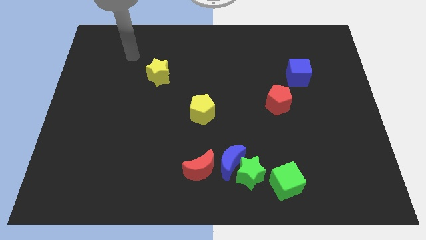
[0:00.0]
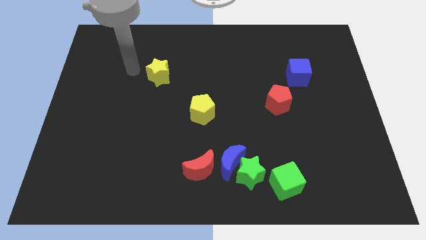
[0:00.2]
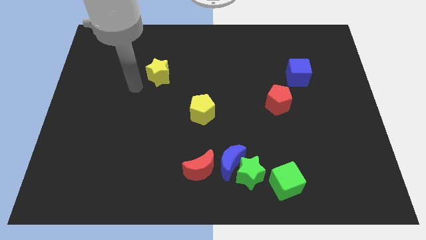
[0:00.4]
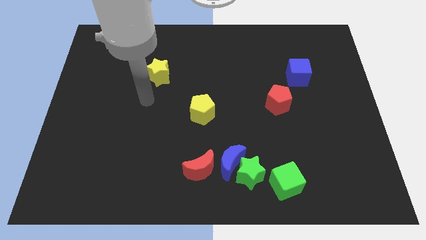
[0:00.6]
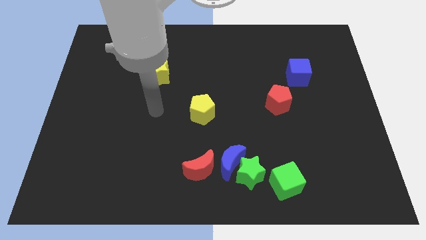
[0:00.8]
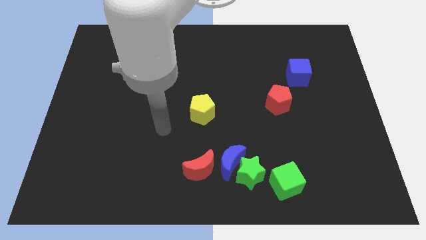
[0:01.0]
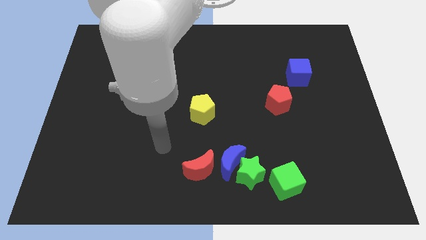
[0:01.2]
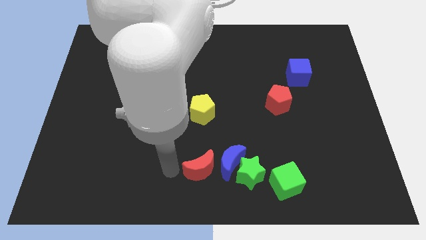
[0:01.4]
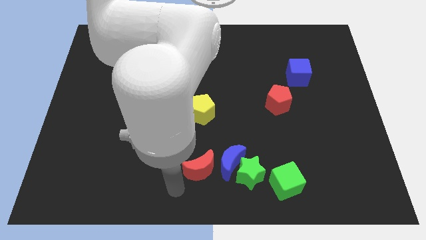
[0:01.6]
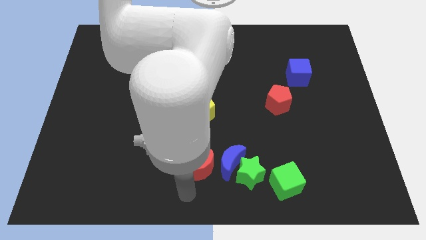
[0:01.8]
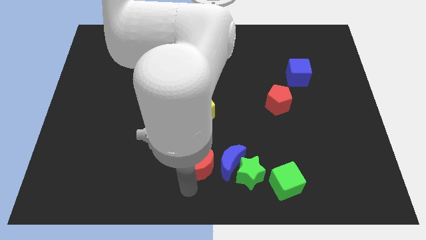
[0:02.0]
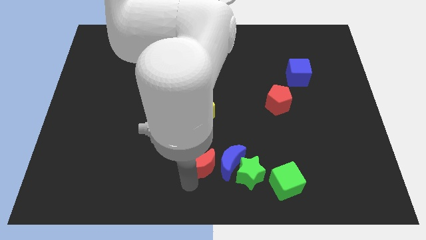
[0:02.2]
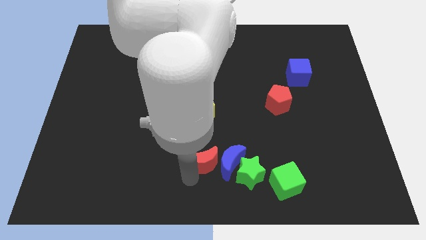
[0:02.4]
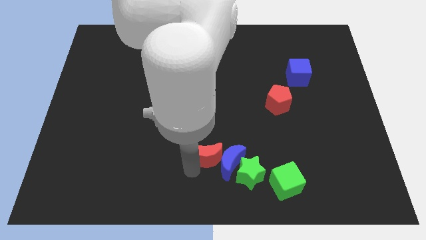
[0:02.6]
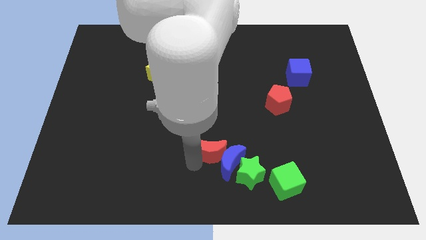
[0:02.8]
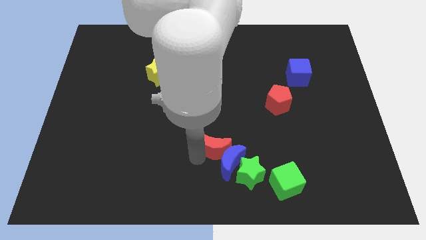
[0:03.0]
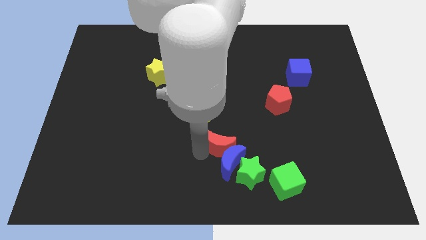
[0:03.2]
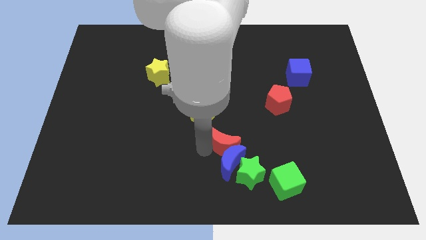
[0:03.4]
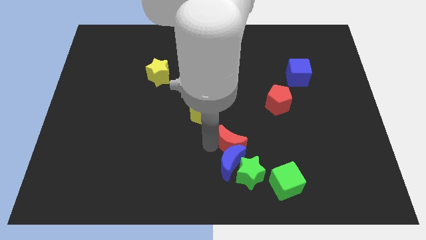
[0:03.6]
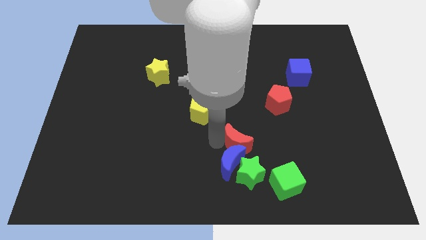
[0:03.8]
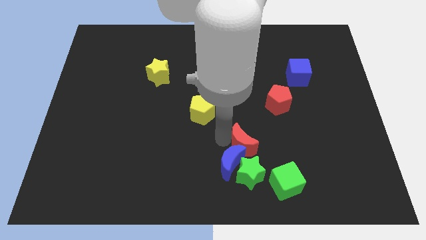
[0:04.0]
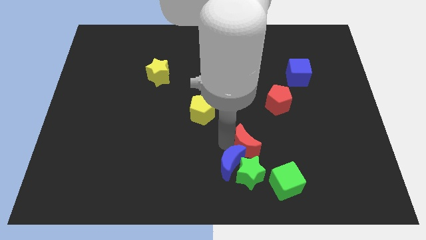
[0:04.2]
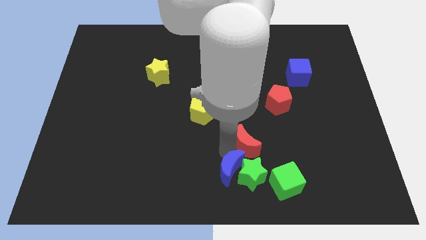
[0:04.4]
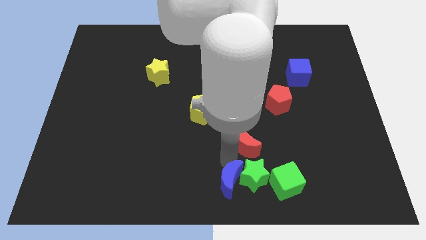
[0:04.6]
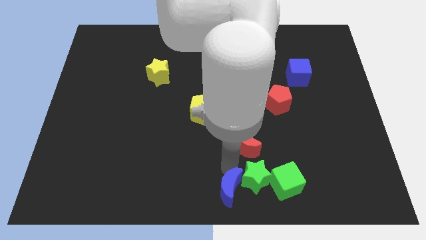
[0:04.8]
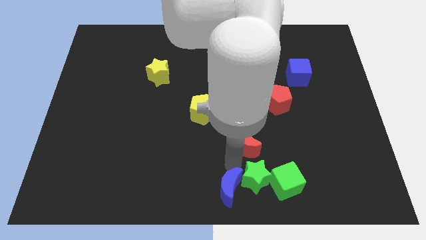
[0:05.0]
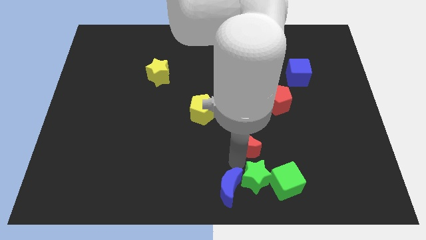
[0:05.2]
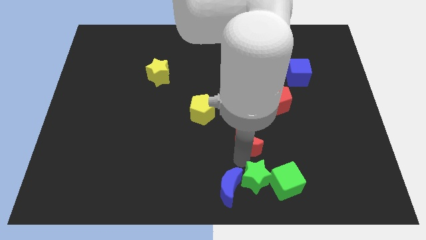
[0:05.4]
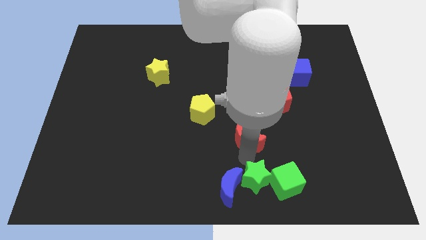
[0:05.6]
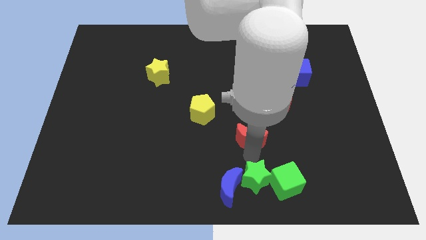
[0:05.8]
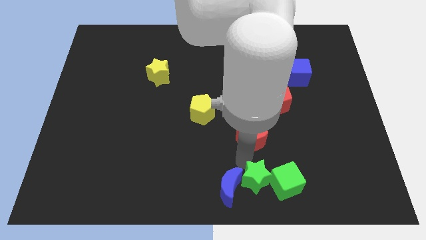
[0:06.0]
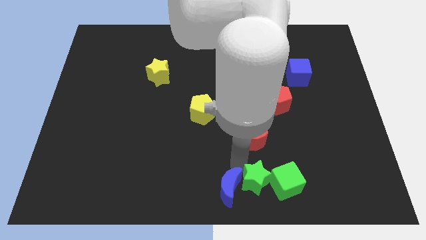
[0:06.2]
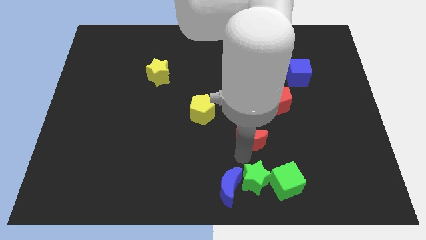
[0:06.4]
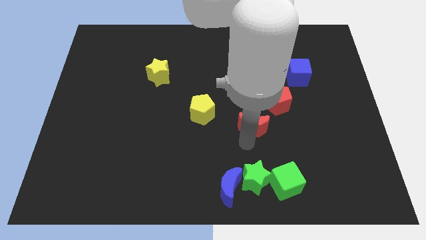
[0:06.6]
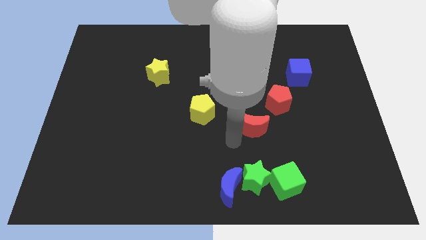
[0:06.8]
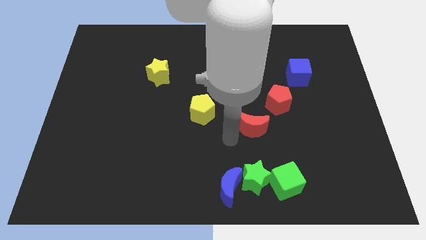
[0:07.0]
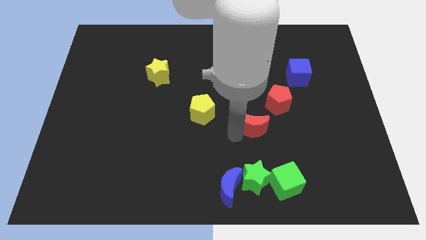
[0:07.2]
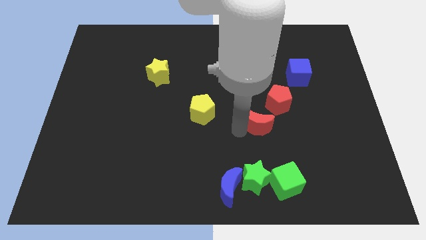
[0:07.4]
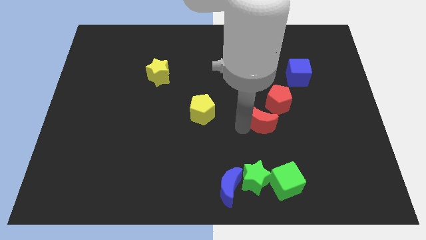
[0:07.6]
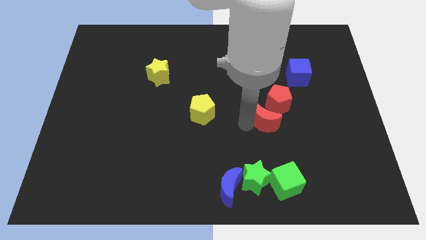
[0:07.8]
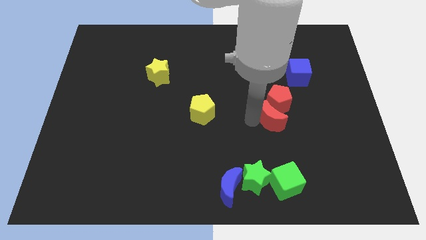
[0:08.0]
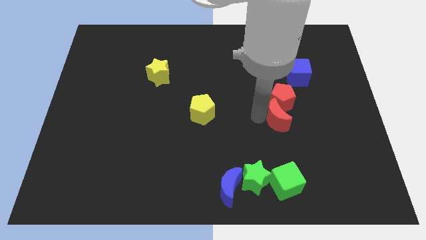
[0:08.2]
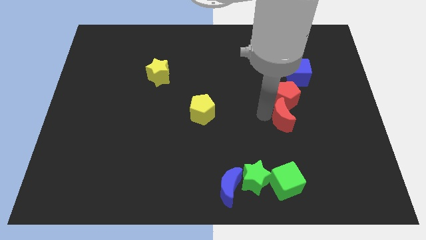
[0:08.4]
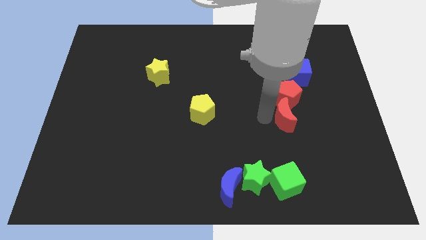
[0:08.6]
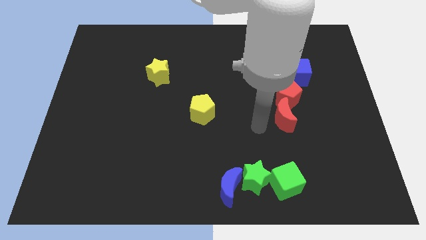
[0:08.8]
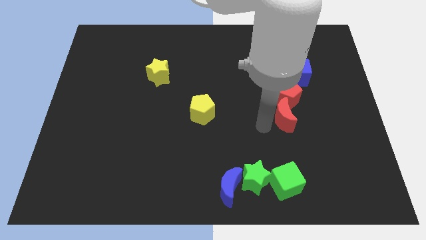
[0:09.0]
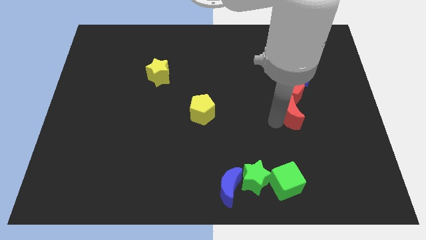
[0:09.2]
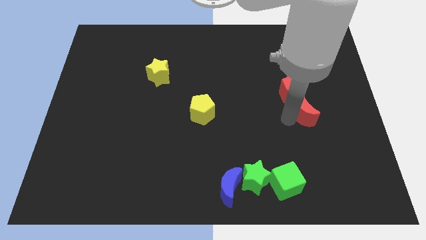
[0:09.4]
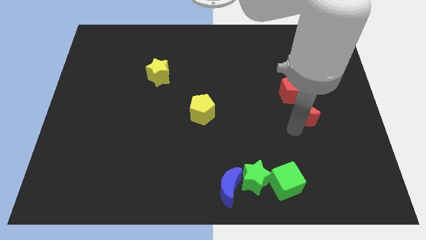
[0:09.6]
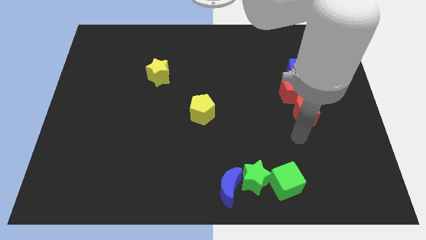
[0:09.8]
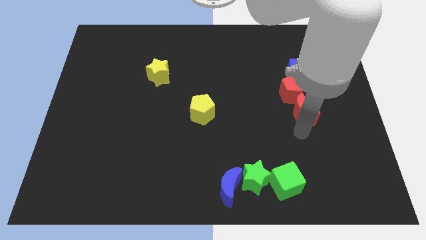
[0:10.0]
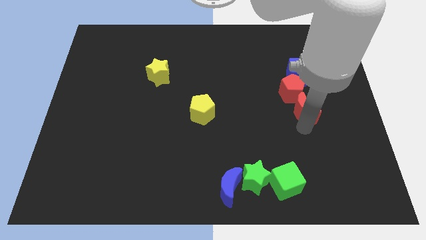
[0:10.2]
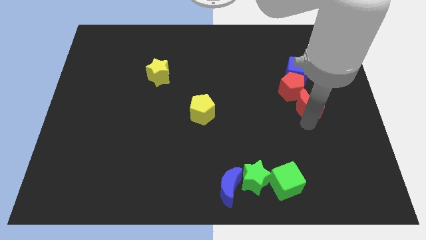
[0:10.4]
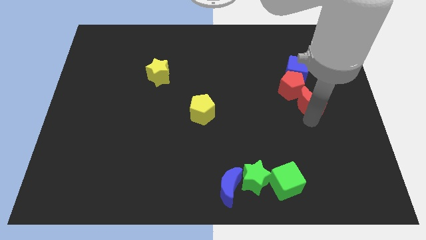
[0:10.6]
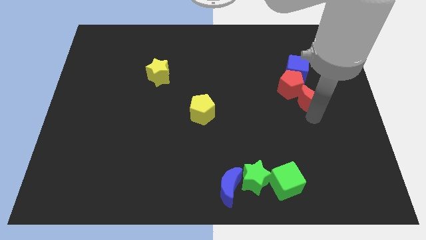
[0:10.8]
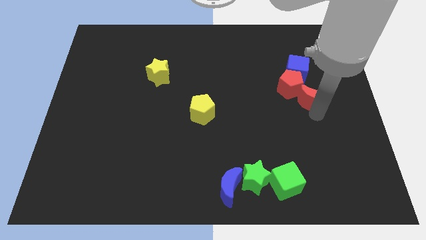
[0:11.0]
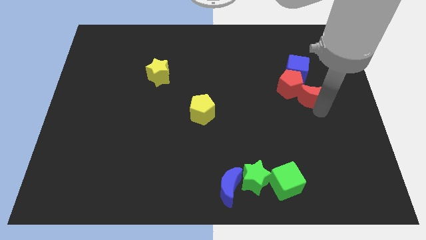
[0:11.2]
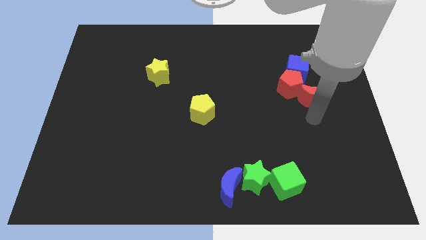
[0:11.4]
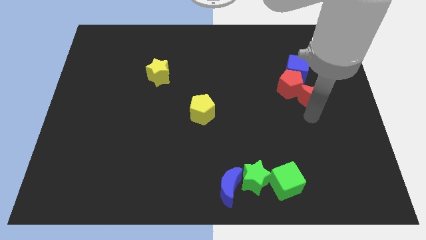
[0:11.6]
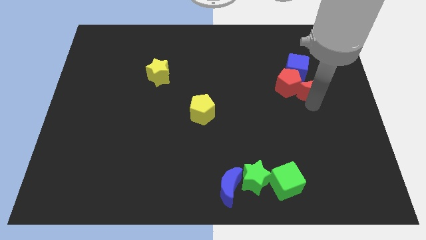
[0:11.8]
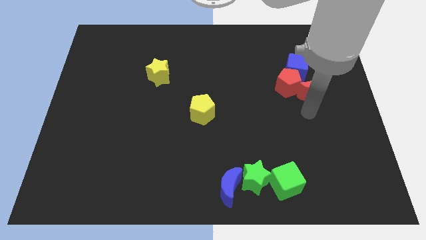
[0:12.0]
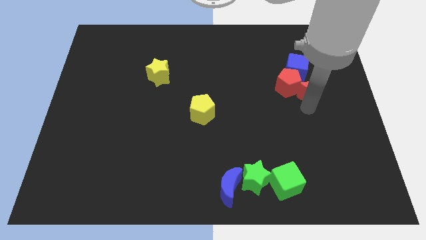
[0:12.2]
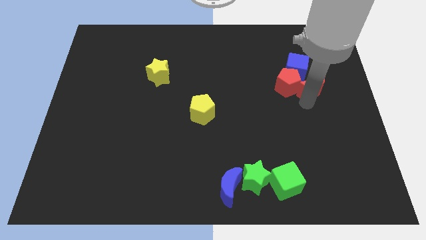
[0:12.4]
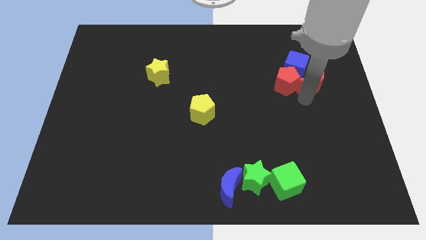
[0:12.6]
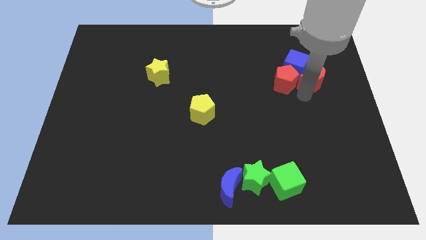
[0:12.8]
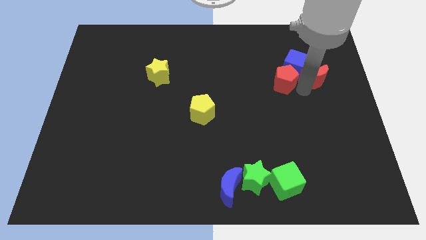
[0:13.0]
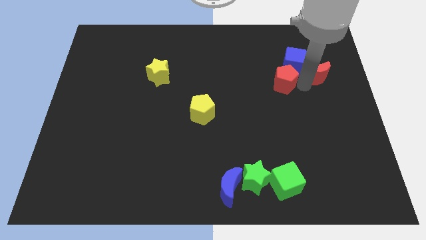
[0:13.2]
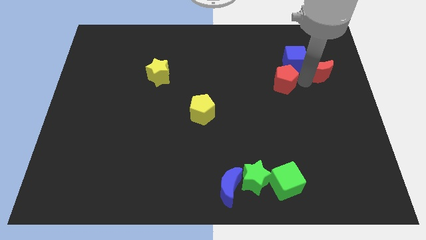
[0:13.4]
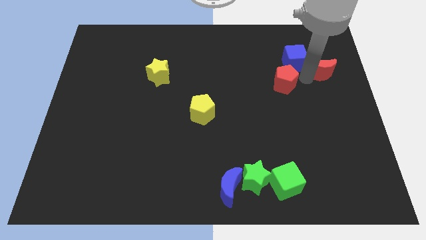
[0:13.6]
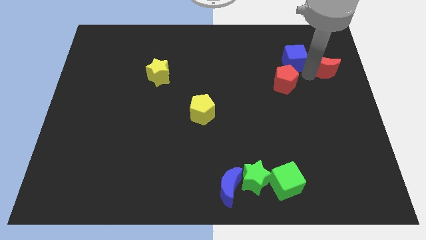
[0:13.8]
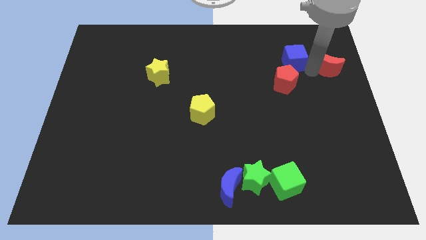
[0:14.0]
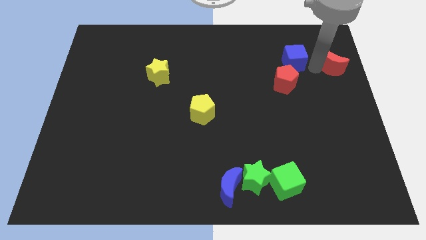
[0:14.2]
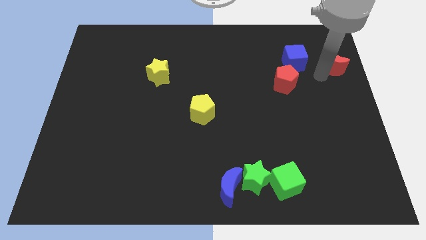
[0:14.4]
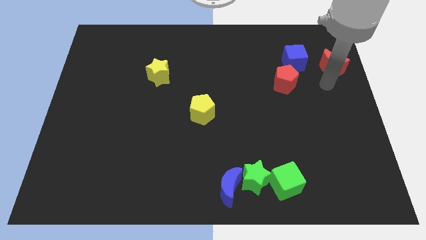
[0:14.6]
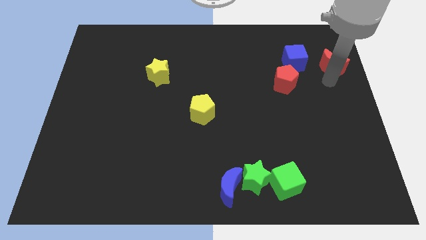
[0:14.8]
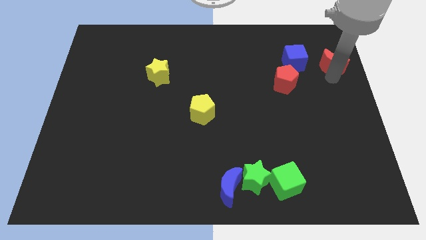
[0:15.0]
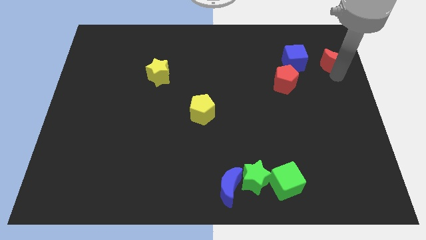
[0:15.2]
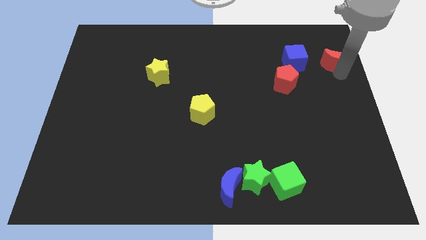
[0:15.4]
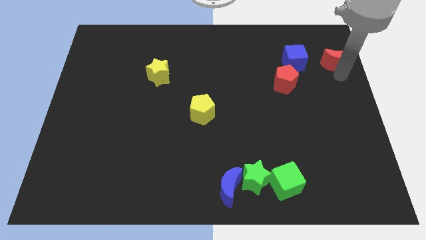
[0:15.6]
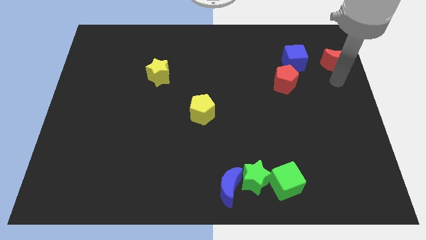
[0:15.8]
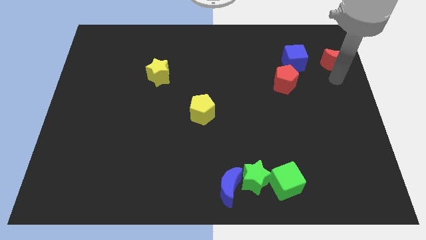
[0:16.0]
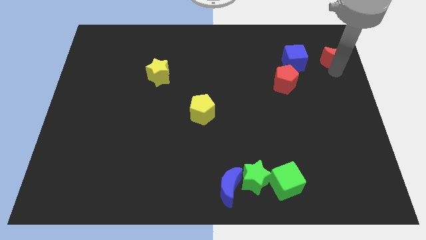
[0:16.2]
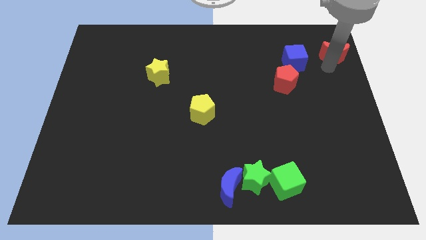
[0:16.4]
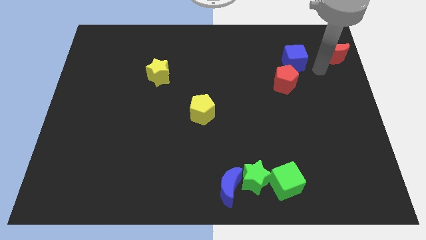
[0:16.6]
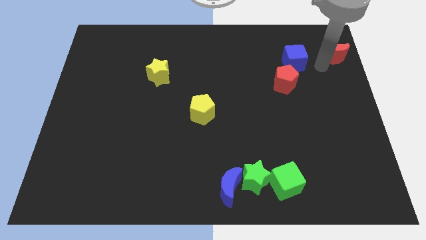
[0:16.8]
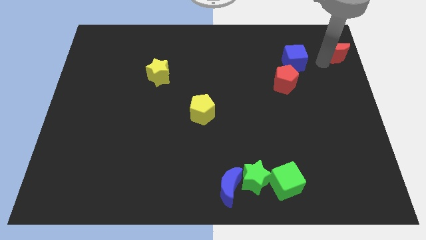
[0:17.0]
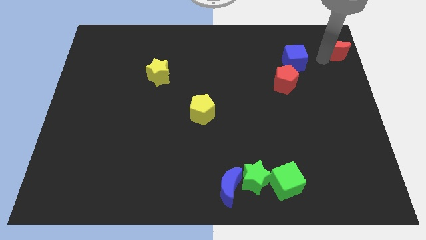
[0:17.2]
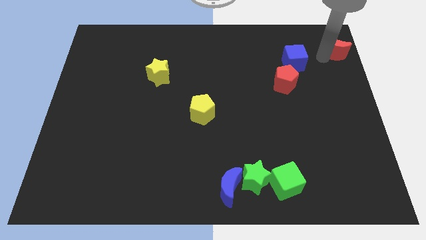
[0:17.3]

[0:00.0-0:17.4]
put the red moon to the top right corner
